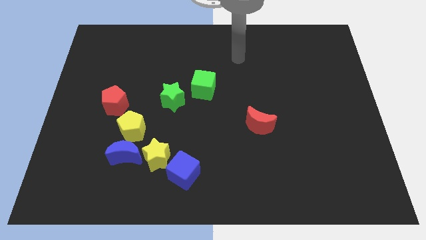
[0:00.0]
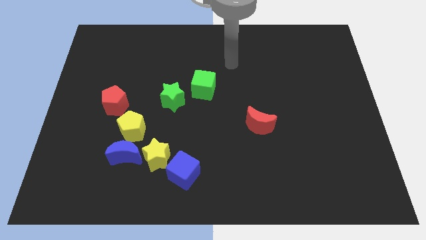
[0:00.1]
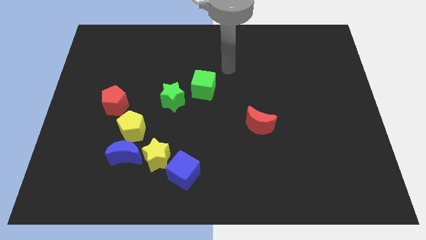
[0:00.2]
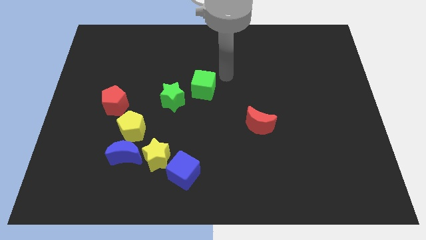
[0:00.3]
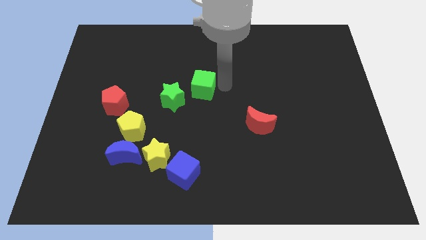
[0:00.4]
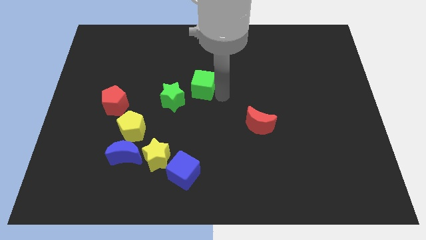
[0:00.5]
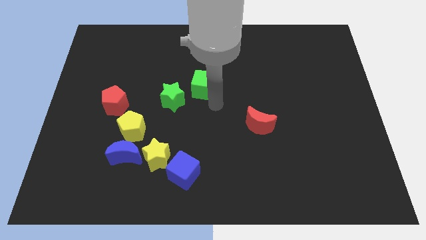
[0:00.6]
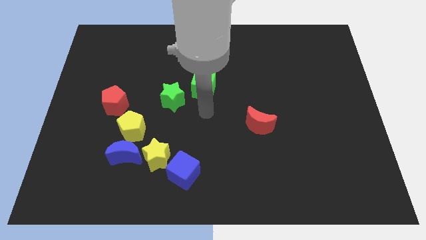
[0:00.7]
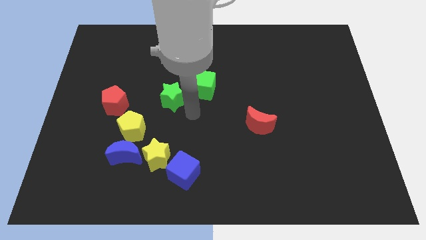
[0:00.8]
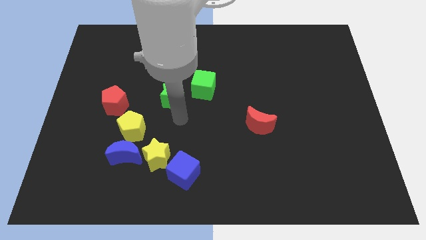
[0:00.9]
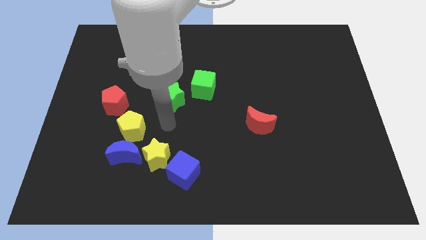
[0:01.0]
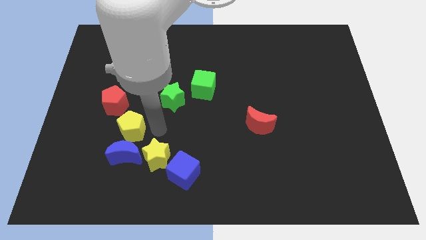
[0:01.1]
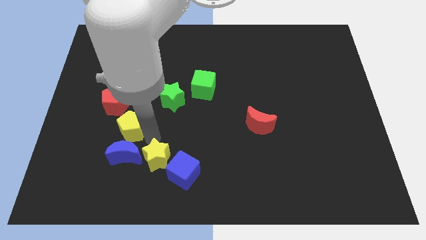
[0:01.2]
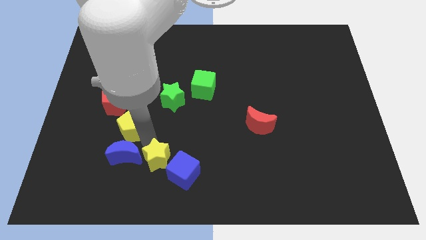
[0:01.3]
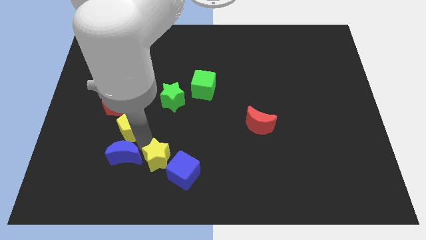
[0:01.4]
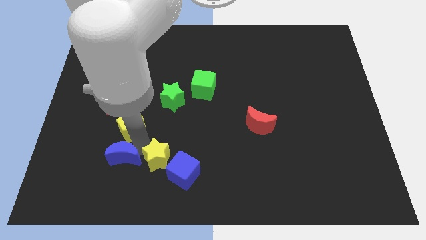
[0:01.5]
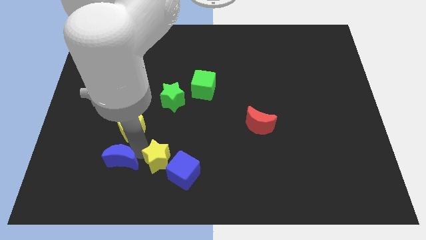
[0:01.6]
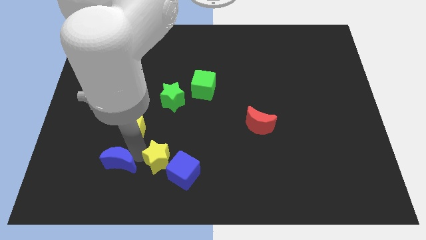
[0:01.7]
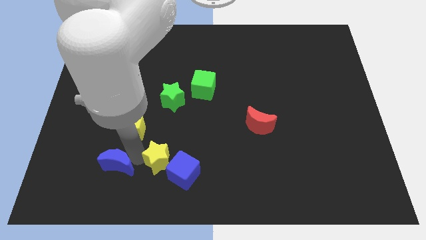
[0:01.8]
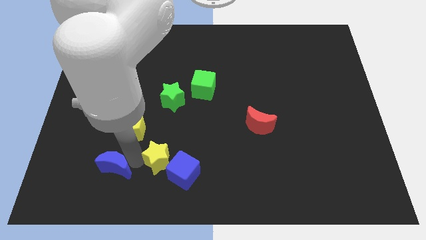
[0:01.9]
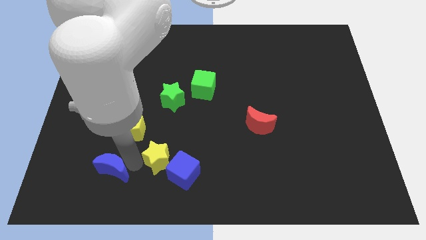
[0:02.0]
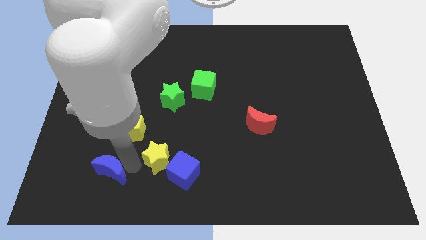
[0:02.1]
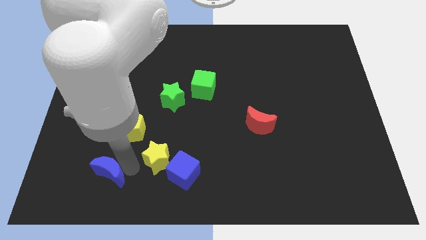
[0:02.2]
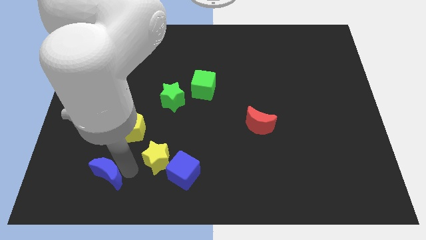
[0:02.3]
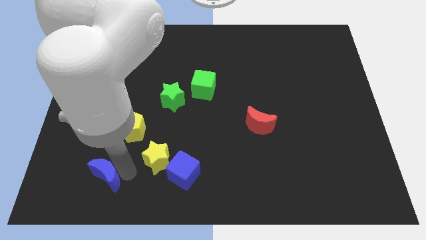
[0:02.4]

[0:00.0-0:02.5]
move the blue moon away from the yellow star and yellow pentagon

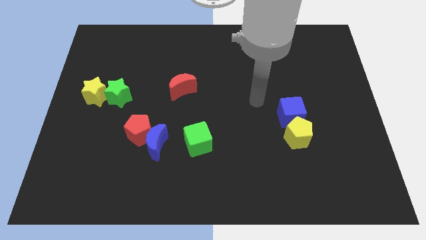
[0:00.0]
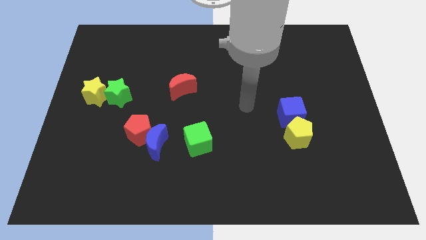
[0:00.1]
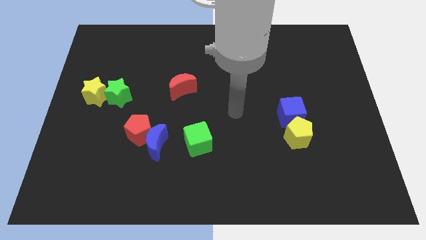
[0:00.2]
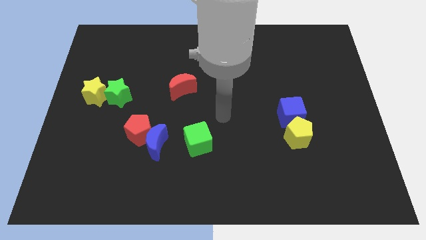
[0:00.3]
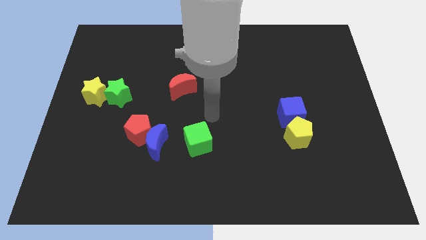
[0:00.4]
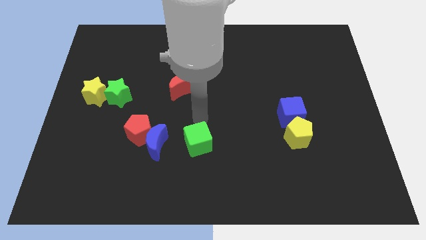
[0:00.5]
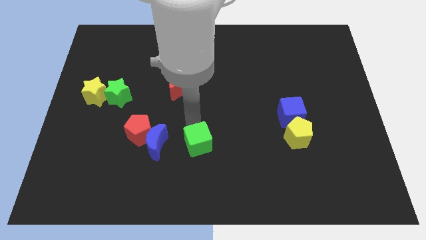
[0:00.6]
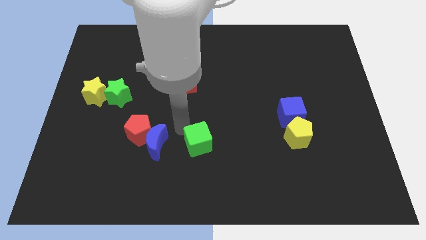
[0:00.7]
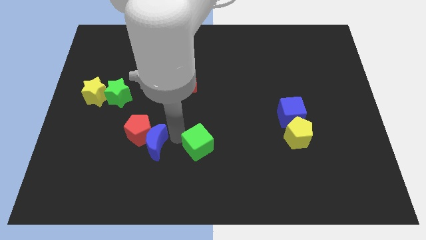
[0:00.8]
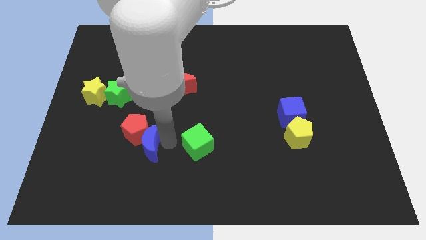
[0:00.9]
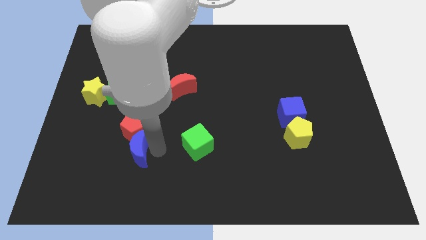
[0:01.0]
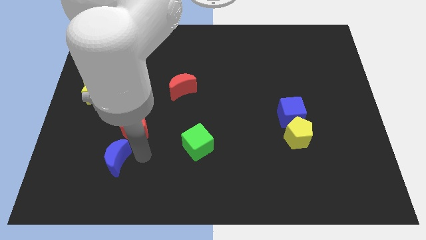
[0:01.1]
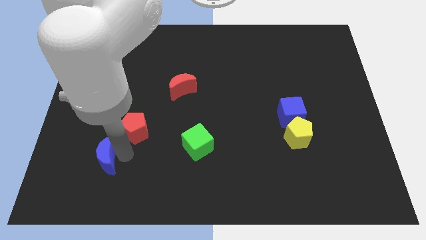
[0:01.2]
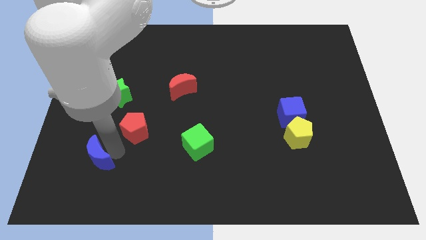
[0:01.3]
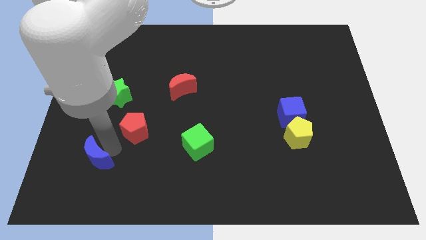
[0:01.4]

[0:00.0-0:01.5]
separate the red pentagon from the blue moon

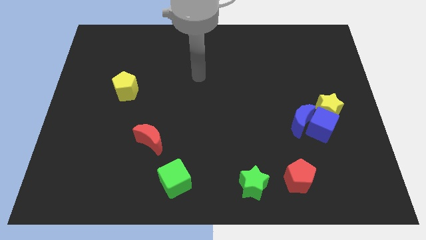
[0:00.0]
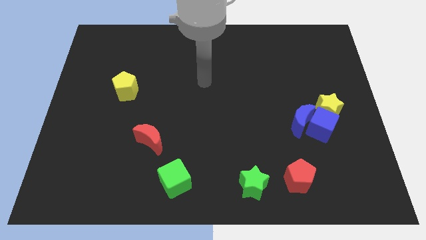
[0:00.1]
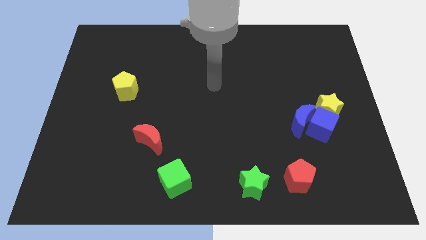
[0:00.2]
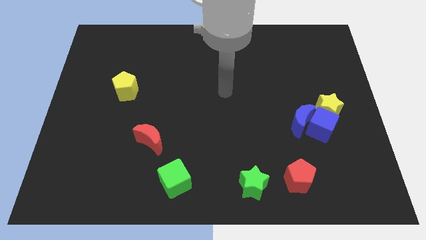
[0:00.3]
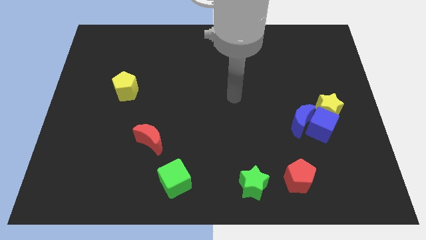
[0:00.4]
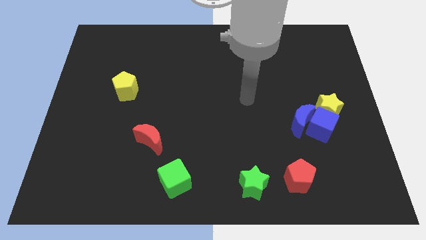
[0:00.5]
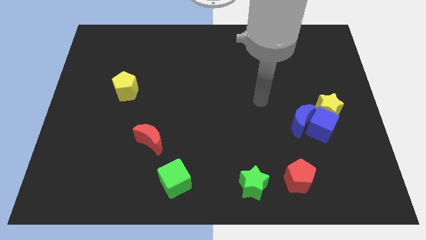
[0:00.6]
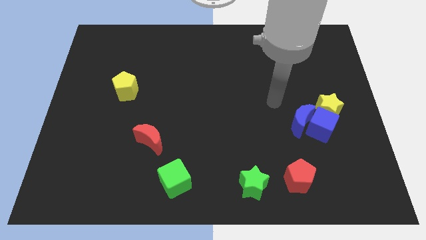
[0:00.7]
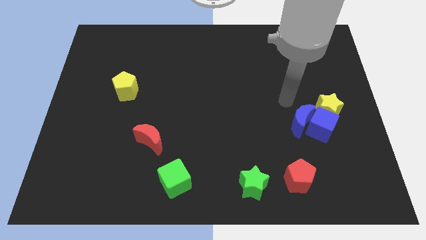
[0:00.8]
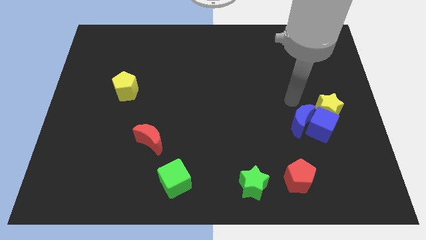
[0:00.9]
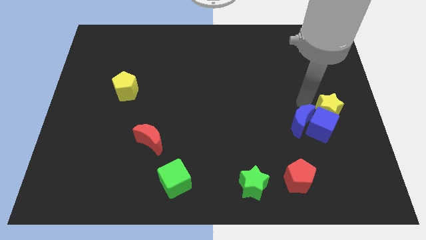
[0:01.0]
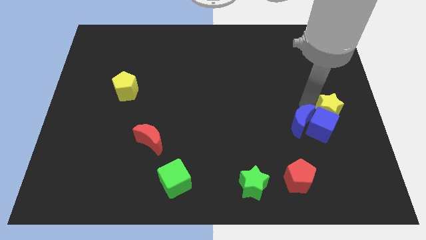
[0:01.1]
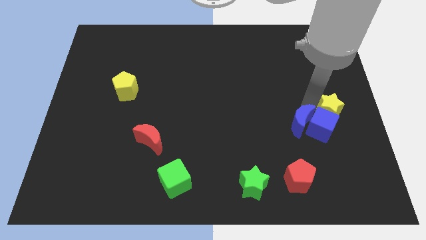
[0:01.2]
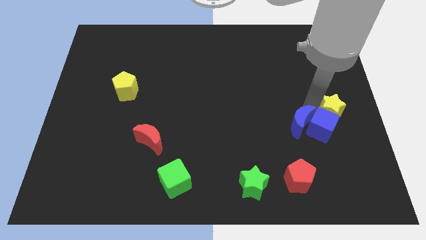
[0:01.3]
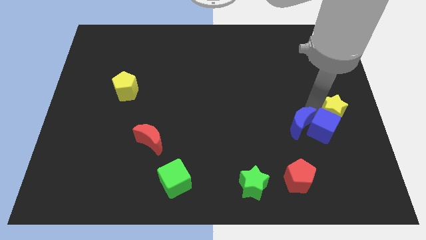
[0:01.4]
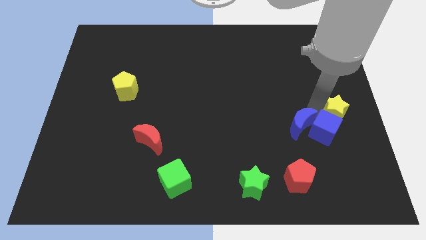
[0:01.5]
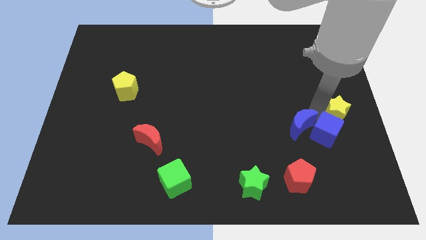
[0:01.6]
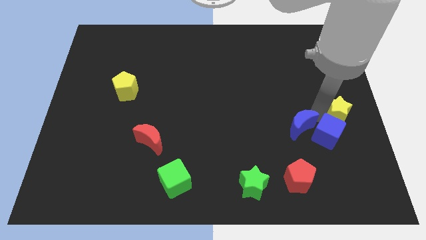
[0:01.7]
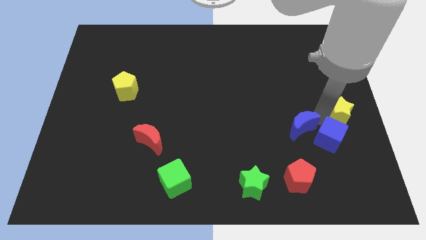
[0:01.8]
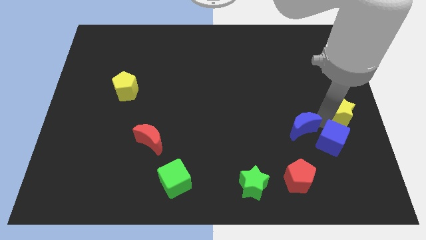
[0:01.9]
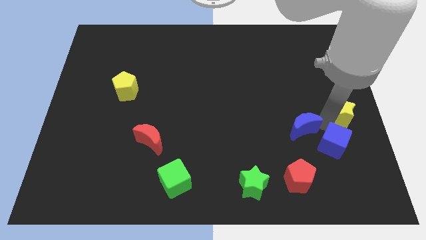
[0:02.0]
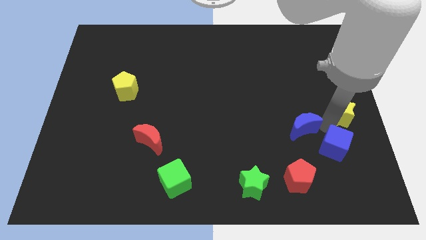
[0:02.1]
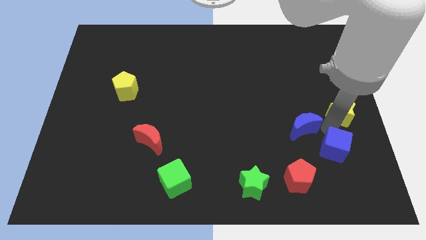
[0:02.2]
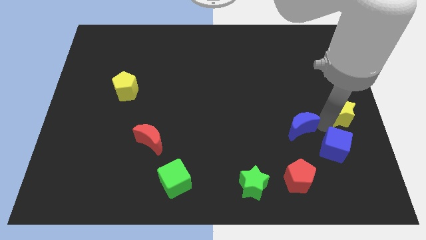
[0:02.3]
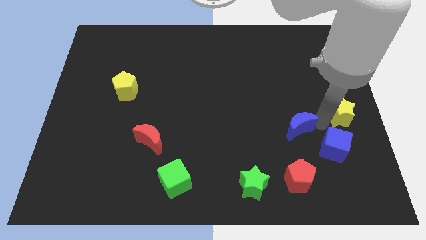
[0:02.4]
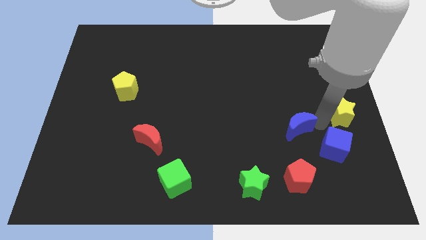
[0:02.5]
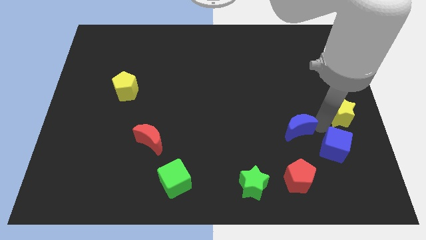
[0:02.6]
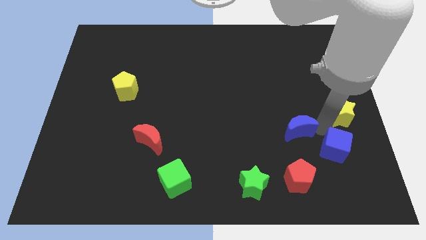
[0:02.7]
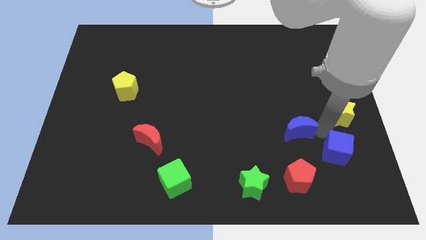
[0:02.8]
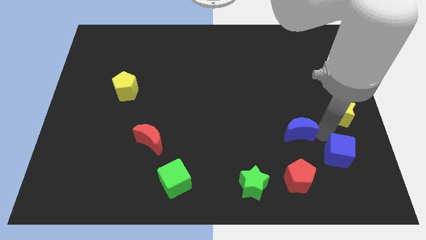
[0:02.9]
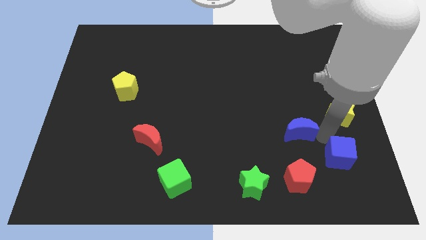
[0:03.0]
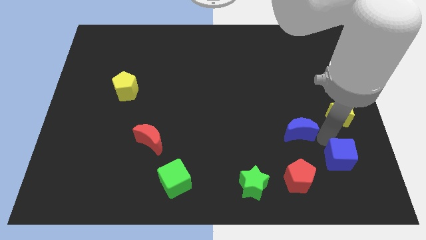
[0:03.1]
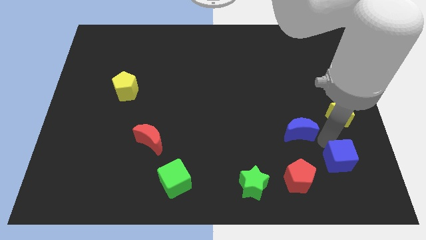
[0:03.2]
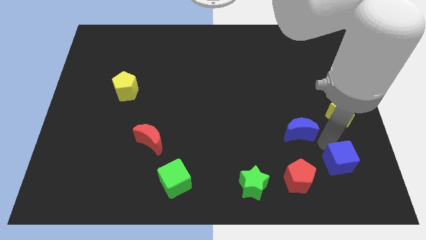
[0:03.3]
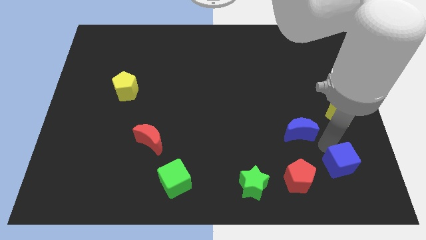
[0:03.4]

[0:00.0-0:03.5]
separate the blue cube from the blue moon and yellow star

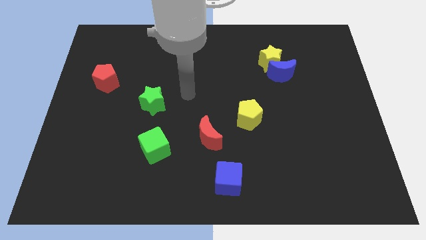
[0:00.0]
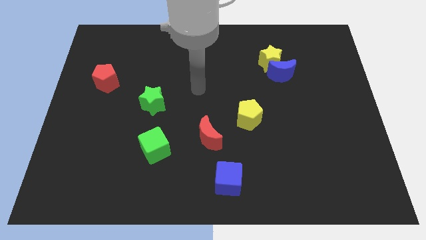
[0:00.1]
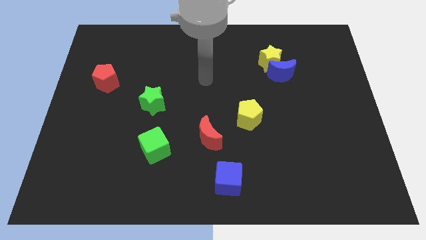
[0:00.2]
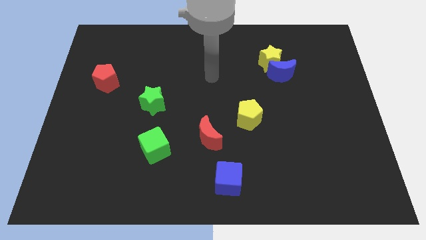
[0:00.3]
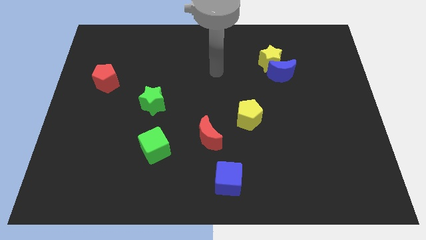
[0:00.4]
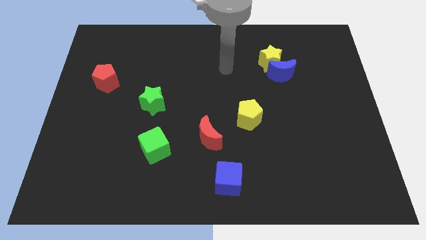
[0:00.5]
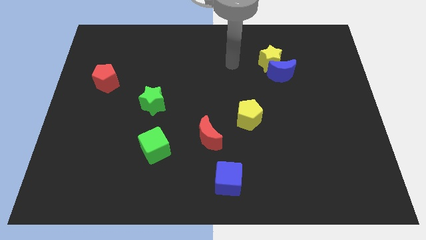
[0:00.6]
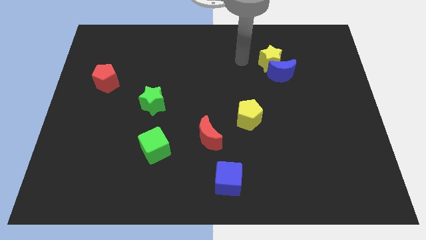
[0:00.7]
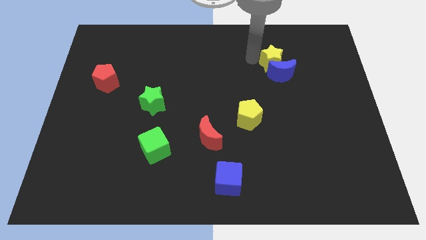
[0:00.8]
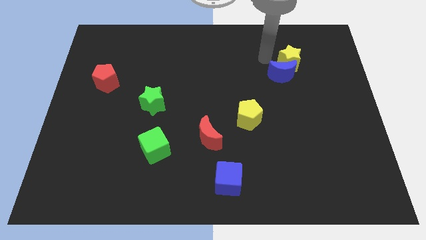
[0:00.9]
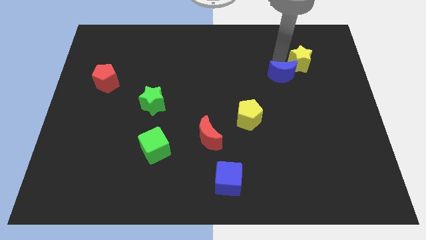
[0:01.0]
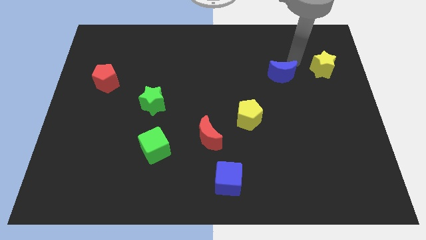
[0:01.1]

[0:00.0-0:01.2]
pull the blue moon apart from the yellow star

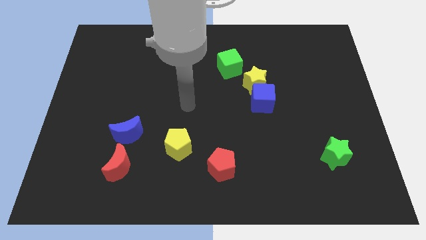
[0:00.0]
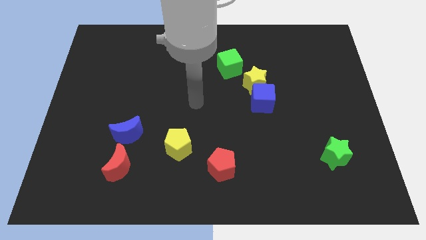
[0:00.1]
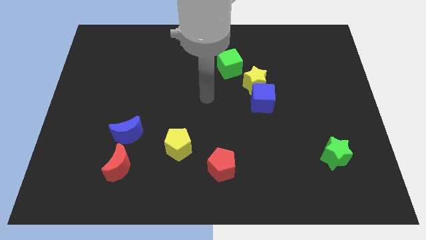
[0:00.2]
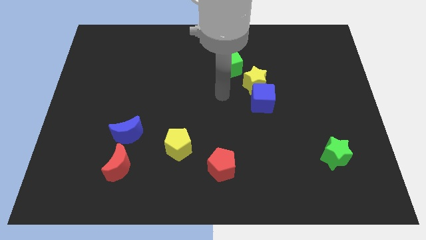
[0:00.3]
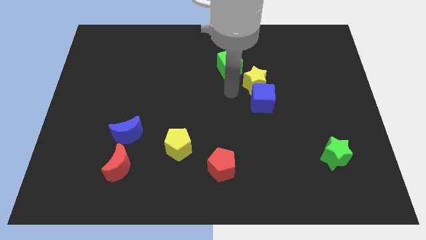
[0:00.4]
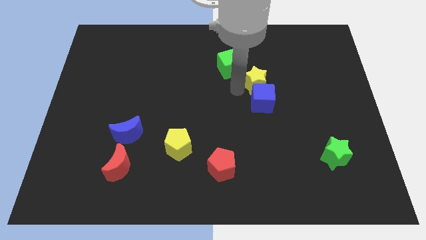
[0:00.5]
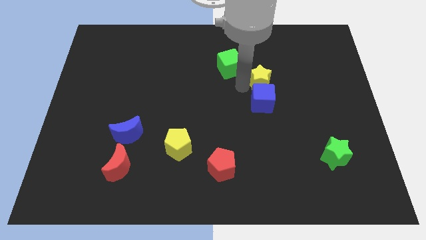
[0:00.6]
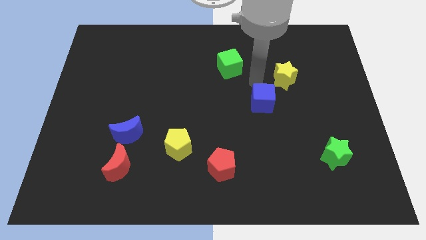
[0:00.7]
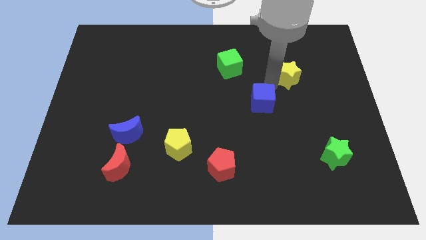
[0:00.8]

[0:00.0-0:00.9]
separate the blue cube from the yellow star
